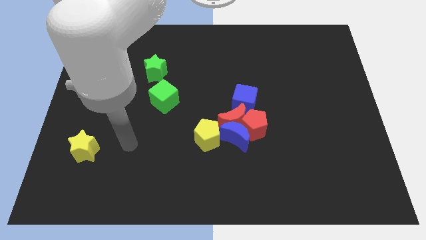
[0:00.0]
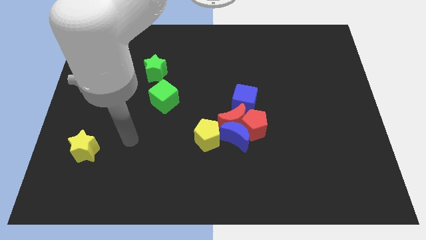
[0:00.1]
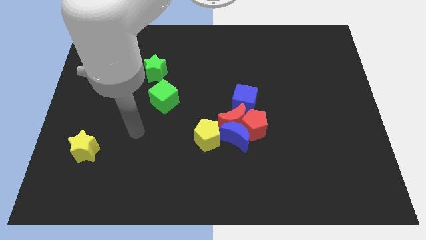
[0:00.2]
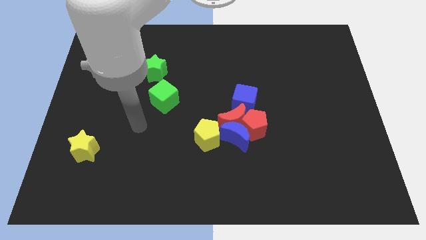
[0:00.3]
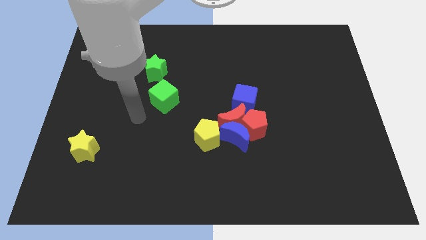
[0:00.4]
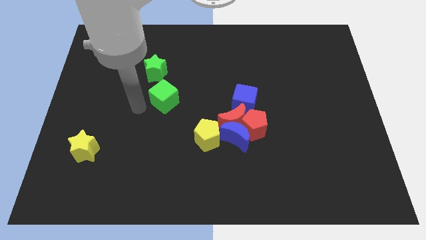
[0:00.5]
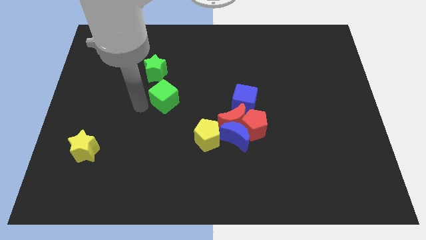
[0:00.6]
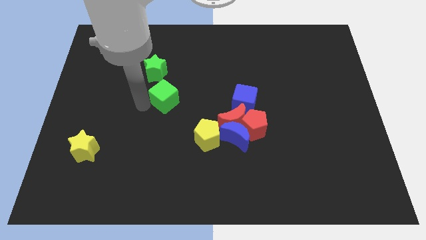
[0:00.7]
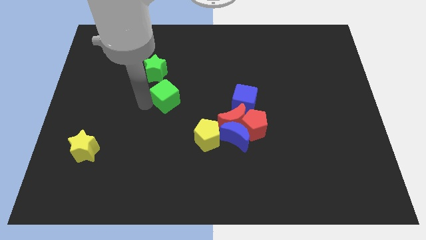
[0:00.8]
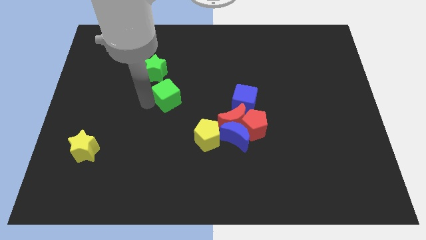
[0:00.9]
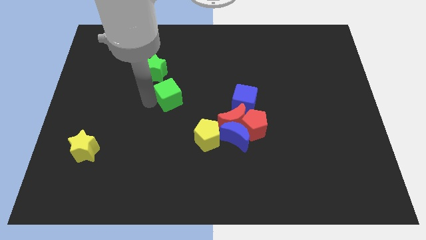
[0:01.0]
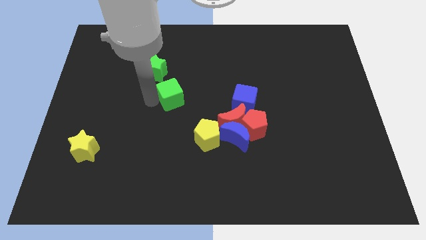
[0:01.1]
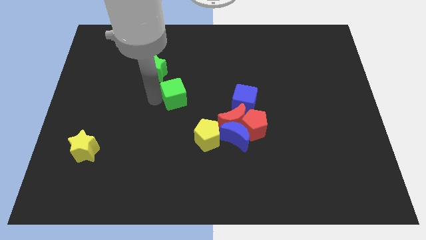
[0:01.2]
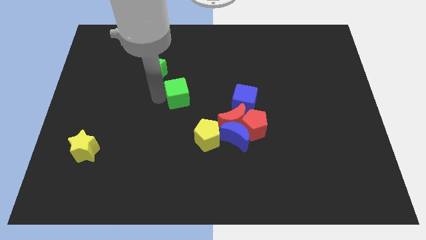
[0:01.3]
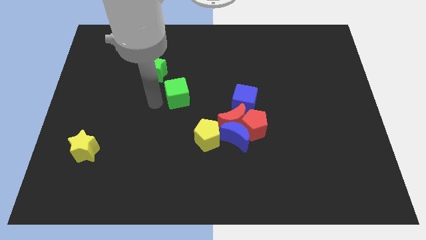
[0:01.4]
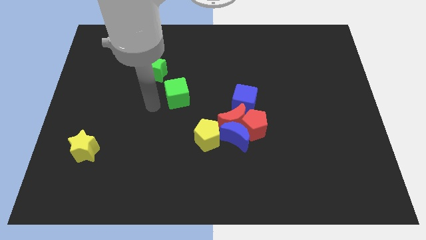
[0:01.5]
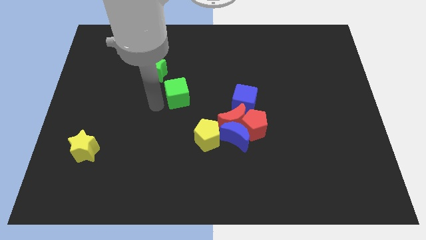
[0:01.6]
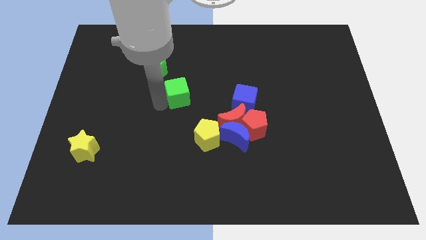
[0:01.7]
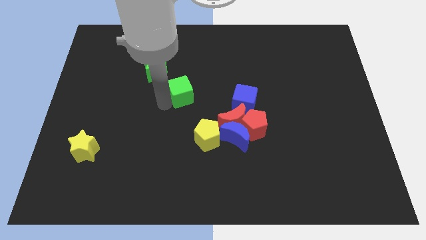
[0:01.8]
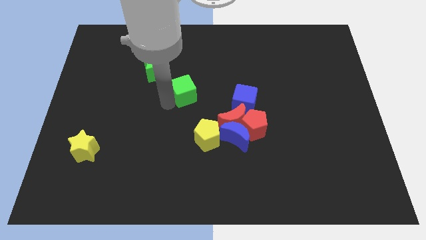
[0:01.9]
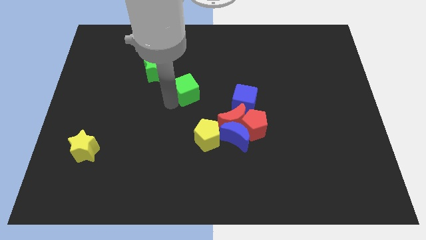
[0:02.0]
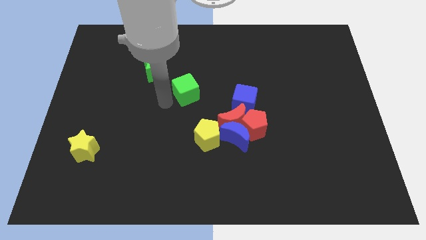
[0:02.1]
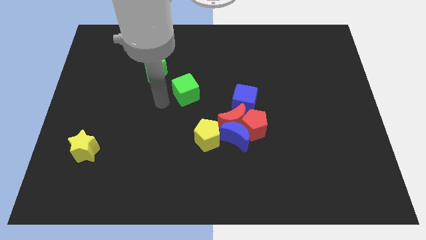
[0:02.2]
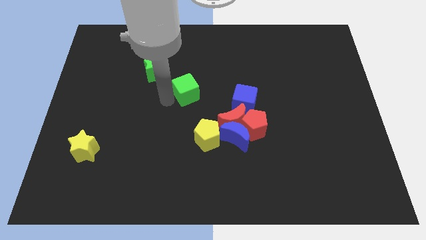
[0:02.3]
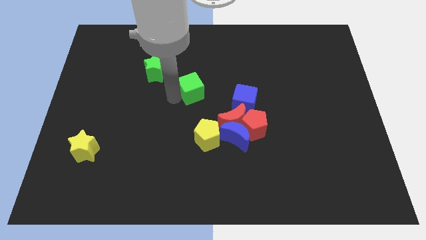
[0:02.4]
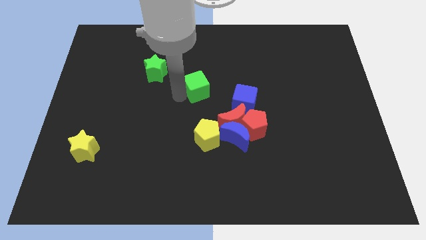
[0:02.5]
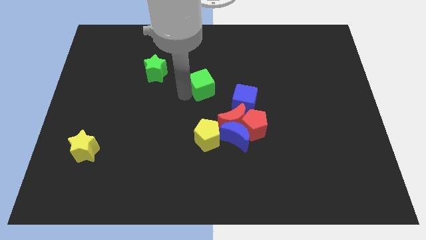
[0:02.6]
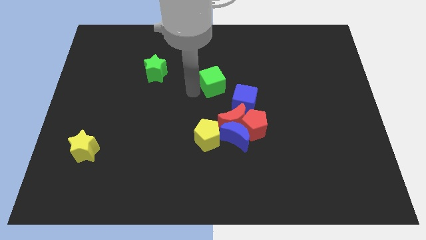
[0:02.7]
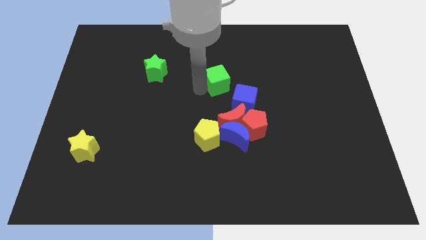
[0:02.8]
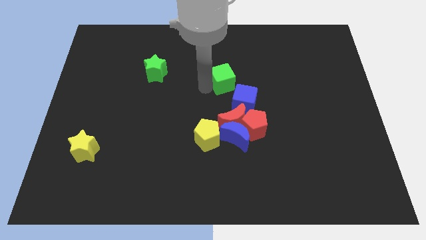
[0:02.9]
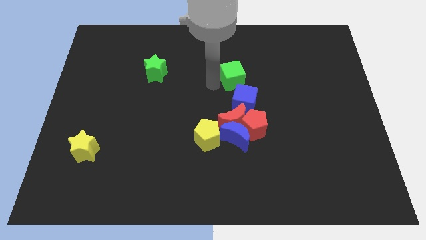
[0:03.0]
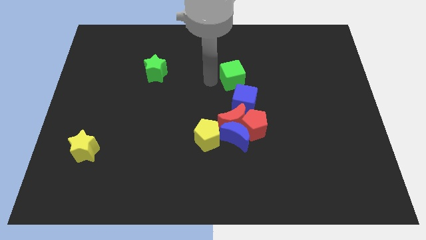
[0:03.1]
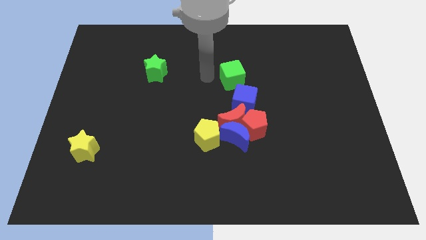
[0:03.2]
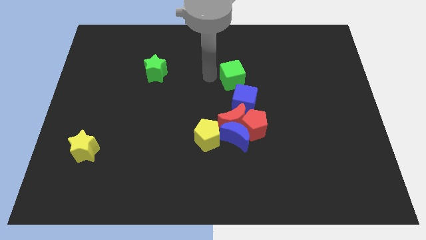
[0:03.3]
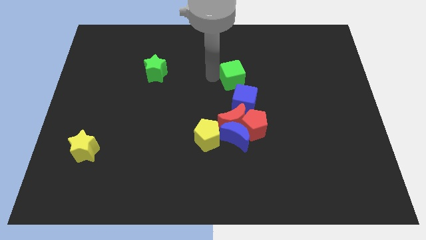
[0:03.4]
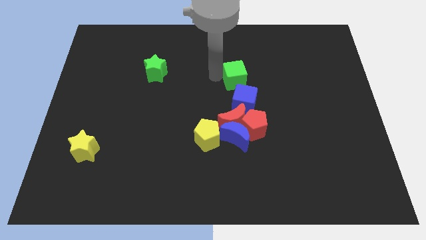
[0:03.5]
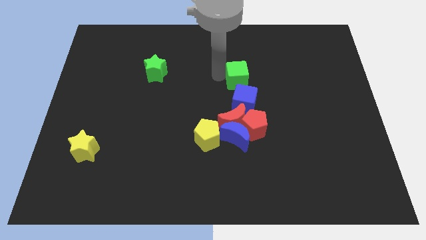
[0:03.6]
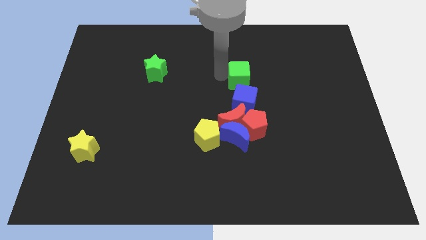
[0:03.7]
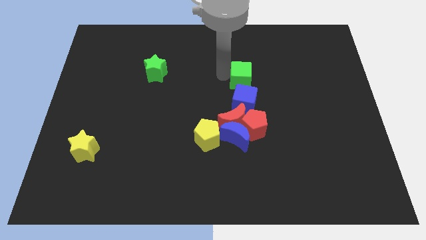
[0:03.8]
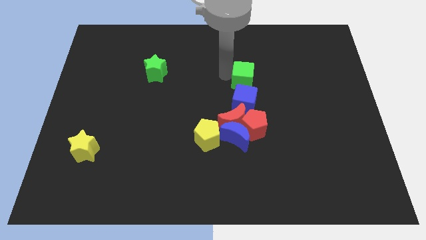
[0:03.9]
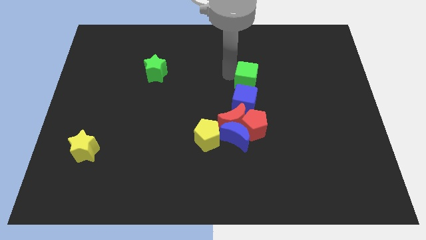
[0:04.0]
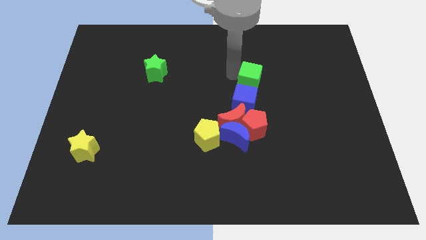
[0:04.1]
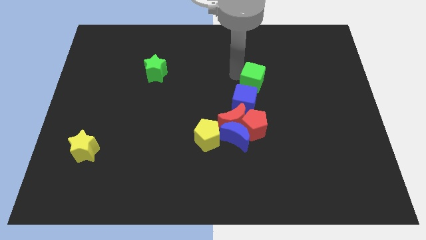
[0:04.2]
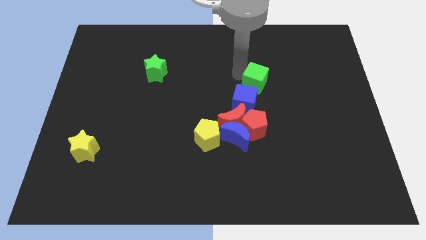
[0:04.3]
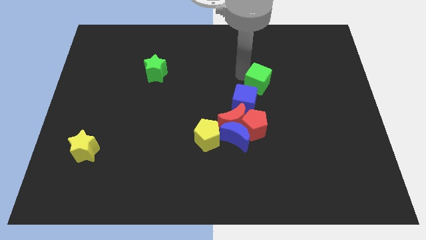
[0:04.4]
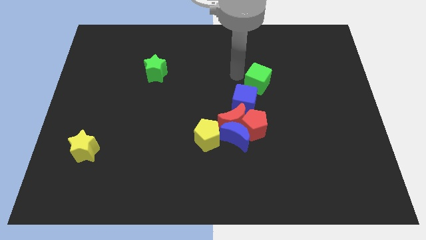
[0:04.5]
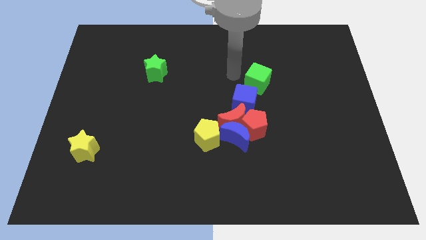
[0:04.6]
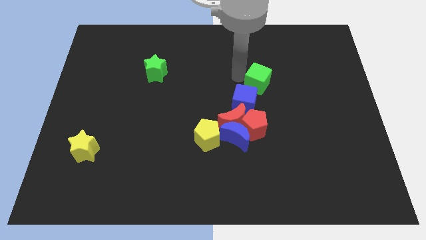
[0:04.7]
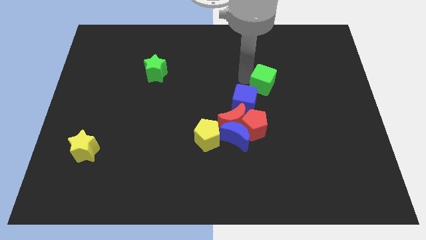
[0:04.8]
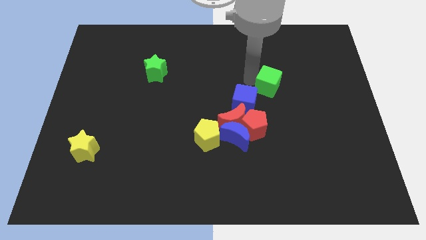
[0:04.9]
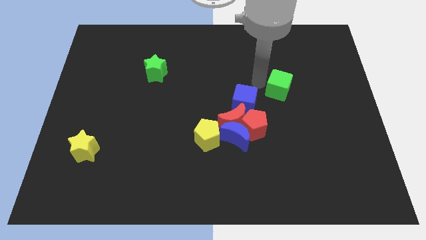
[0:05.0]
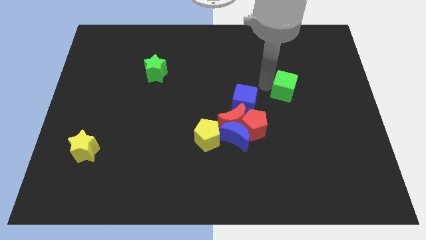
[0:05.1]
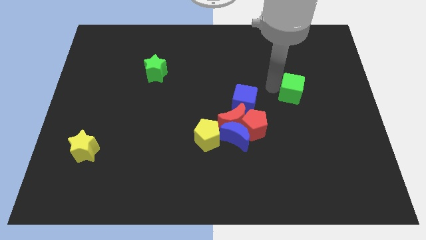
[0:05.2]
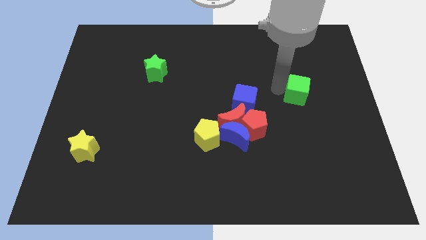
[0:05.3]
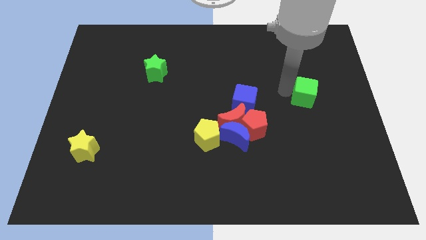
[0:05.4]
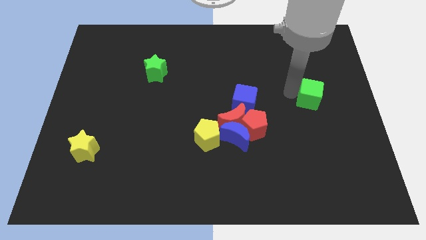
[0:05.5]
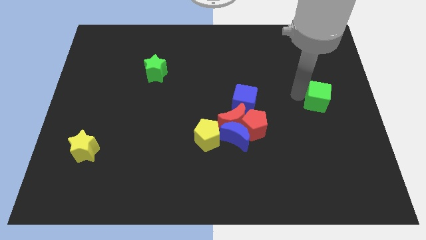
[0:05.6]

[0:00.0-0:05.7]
slide the green cube to the center right

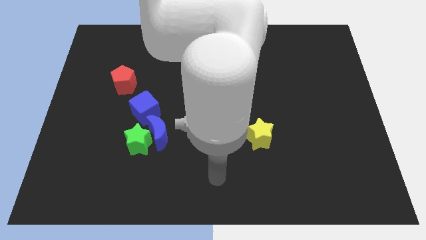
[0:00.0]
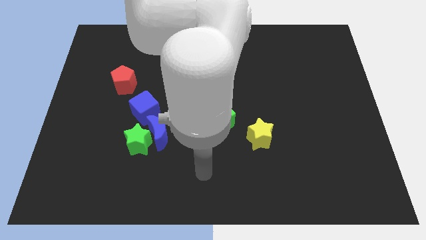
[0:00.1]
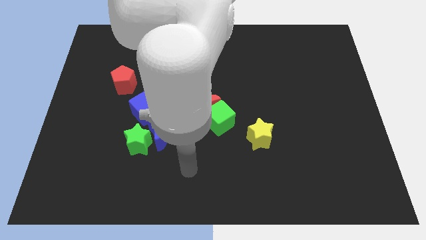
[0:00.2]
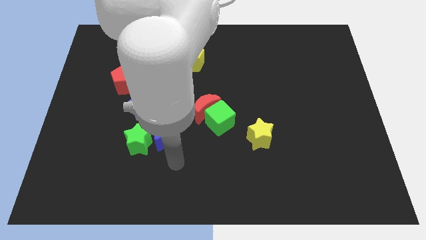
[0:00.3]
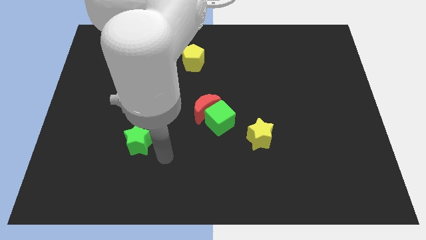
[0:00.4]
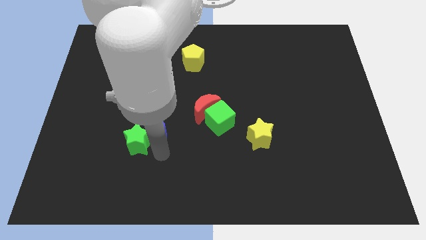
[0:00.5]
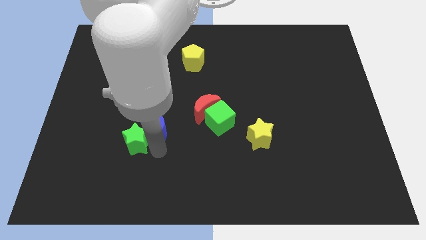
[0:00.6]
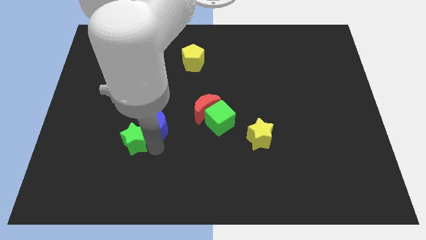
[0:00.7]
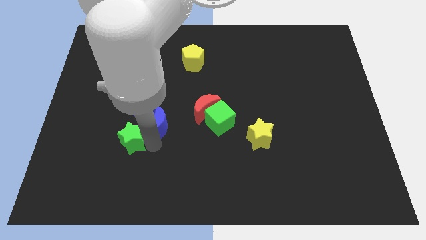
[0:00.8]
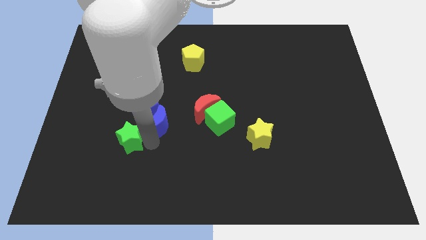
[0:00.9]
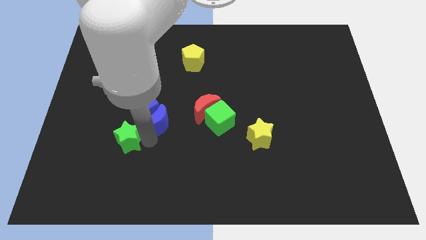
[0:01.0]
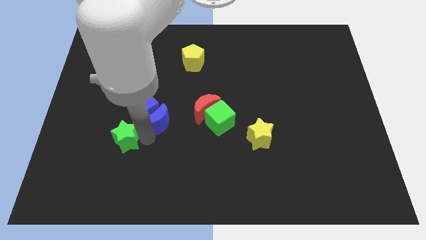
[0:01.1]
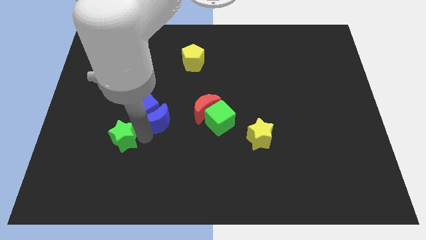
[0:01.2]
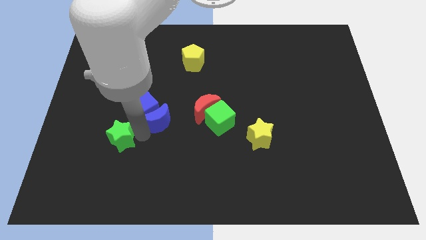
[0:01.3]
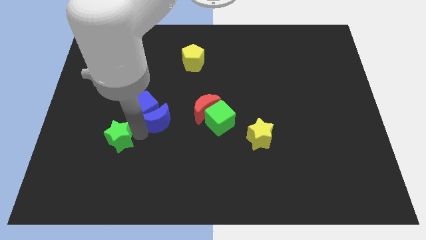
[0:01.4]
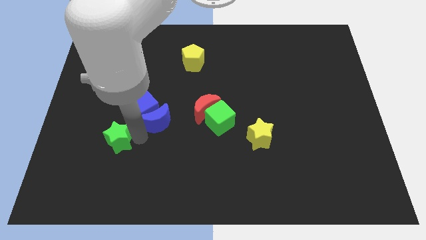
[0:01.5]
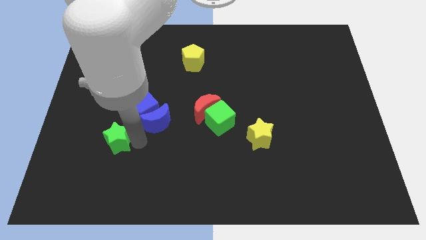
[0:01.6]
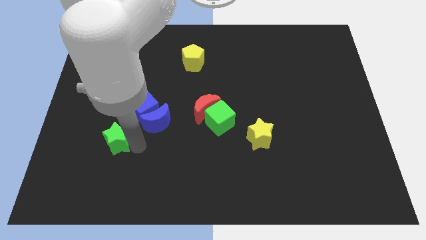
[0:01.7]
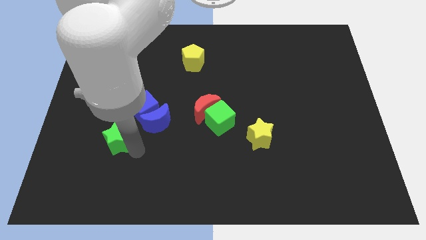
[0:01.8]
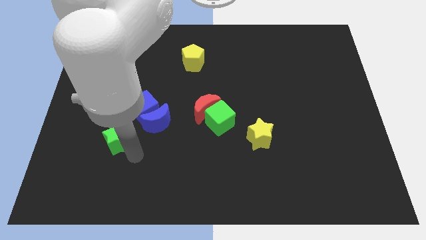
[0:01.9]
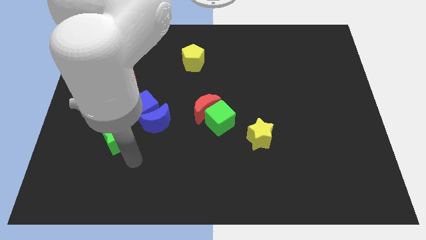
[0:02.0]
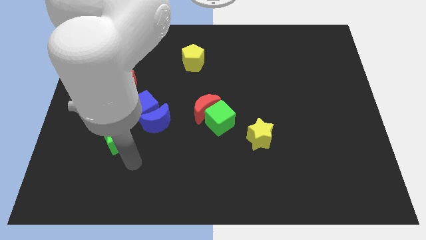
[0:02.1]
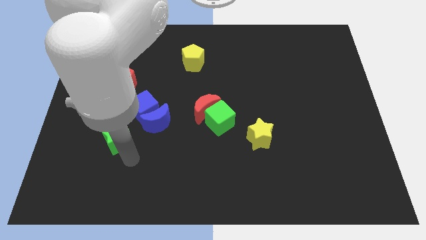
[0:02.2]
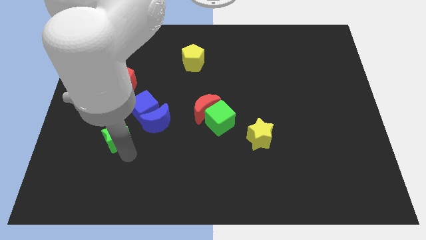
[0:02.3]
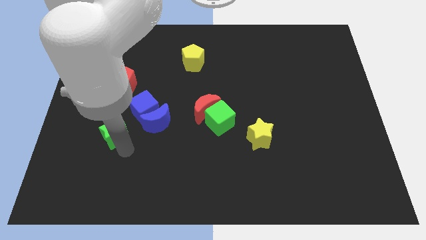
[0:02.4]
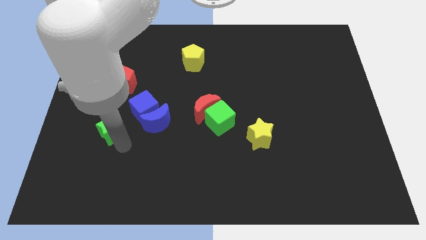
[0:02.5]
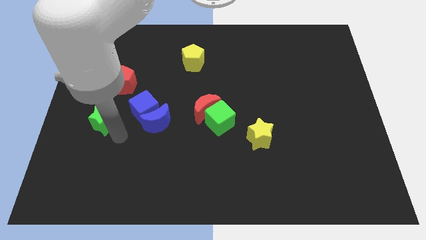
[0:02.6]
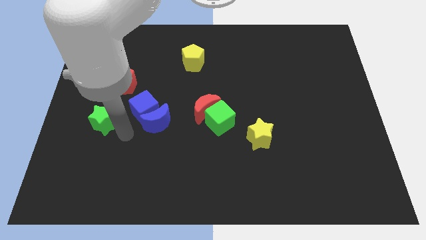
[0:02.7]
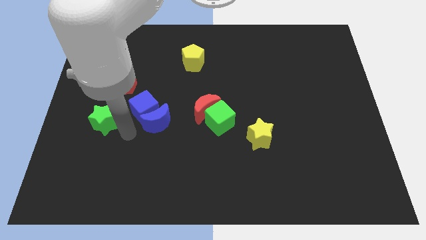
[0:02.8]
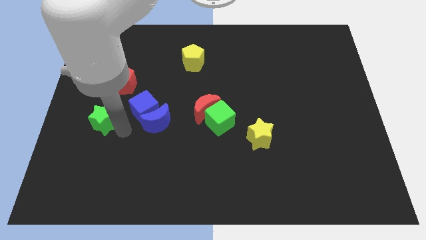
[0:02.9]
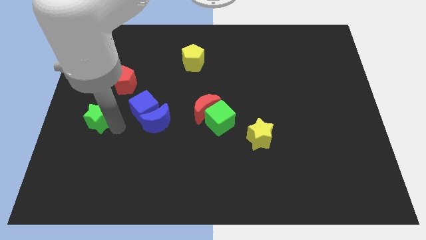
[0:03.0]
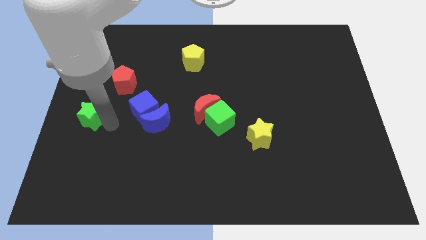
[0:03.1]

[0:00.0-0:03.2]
slide the green star to the center left
